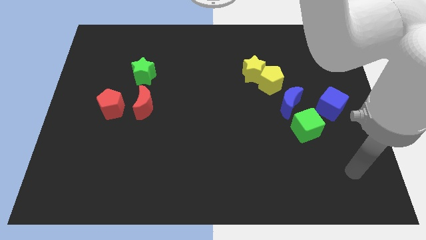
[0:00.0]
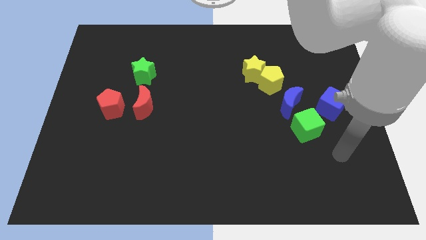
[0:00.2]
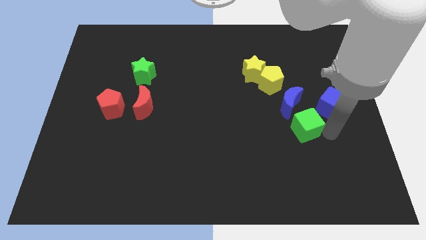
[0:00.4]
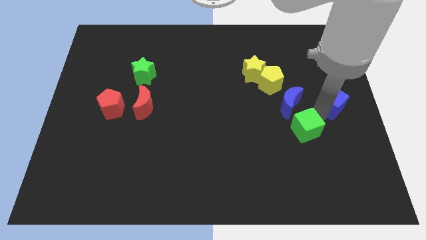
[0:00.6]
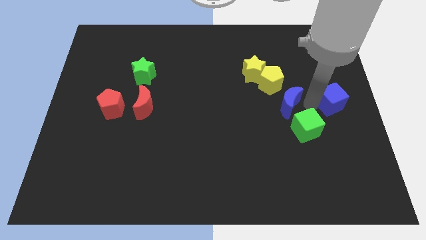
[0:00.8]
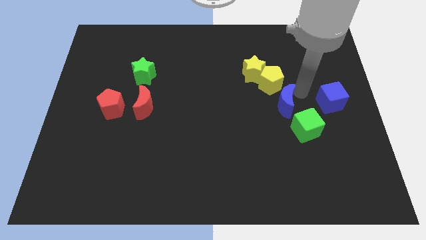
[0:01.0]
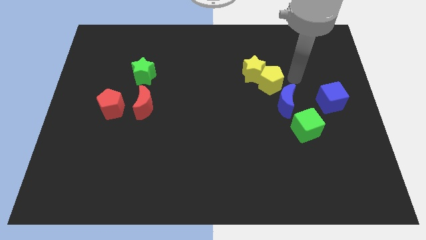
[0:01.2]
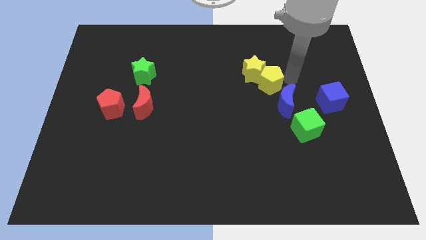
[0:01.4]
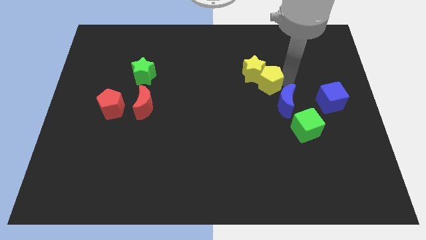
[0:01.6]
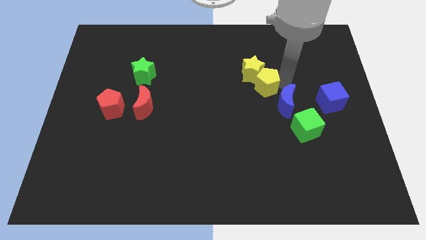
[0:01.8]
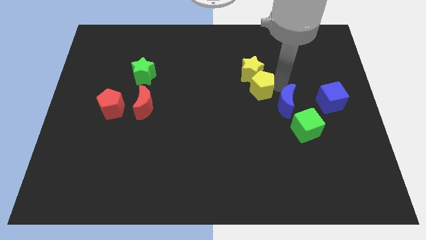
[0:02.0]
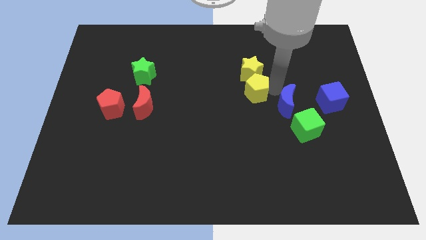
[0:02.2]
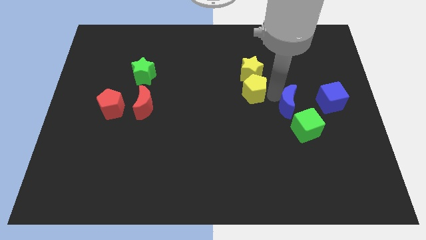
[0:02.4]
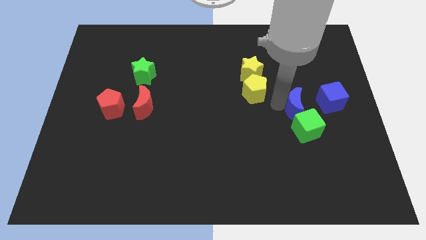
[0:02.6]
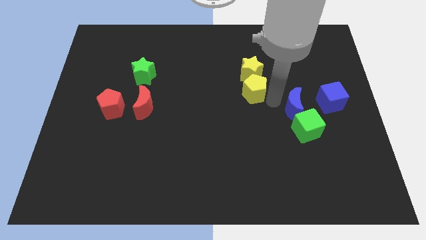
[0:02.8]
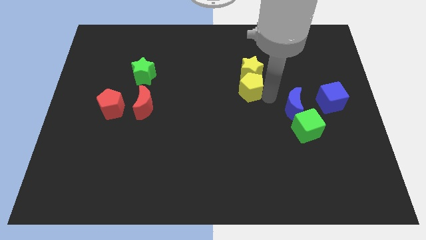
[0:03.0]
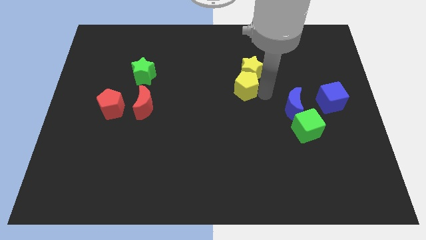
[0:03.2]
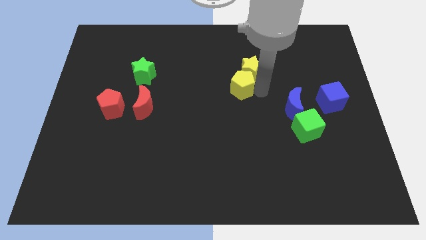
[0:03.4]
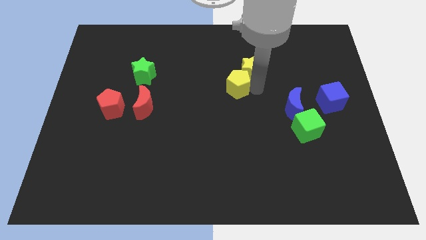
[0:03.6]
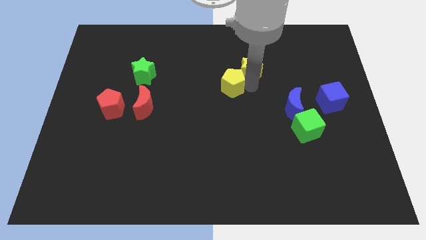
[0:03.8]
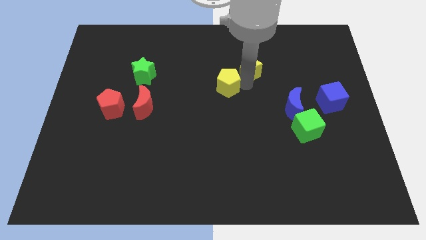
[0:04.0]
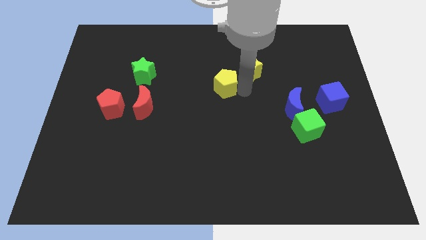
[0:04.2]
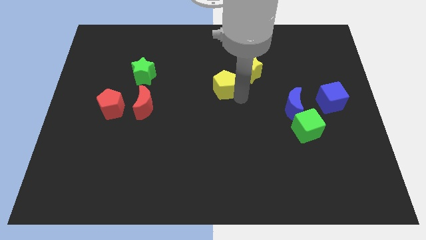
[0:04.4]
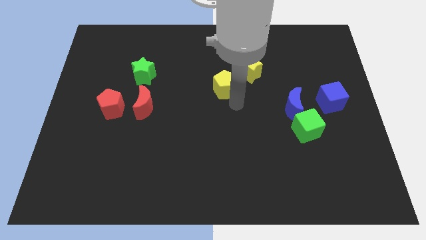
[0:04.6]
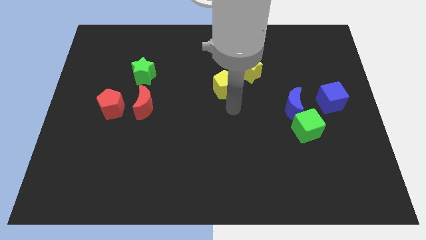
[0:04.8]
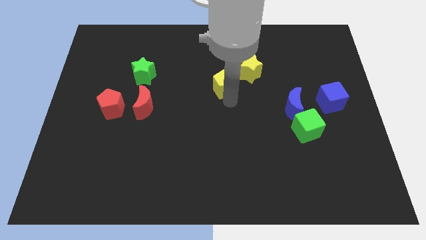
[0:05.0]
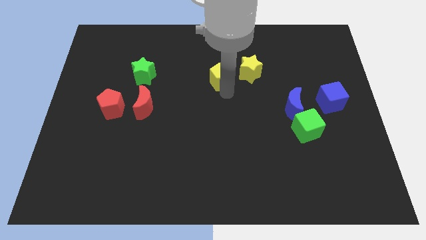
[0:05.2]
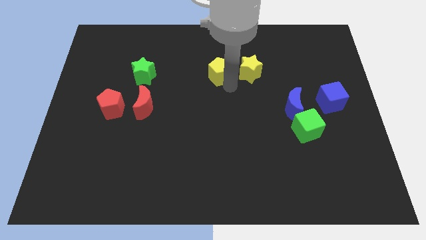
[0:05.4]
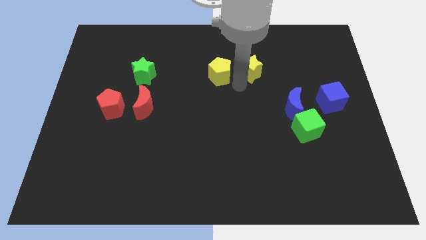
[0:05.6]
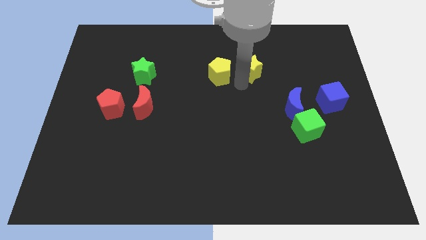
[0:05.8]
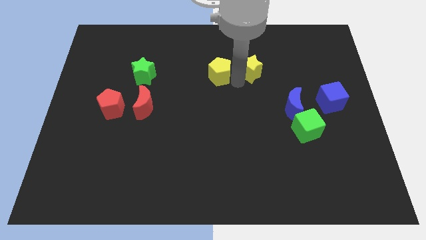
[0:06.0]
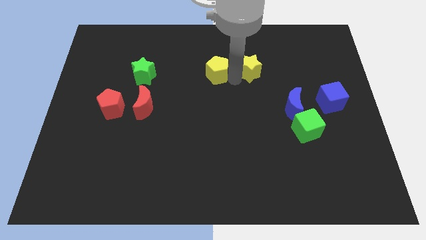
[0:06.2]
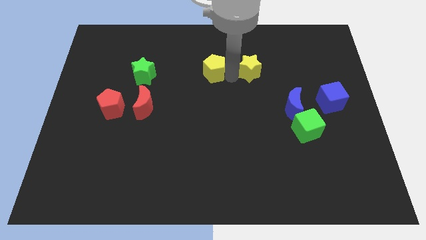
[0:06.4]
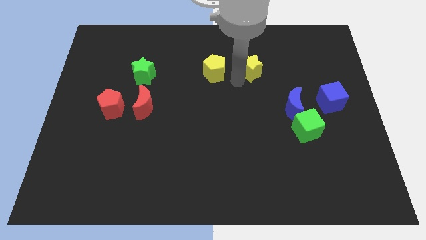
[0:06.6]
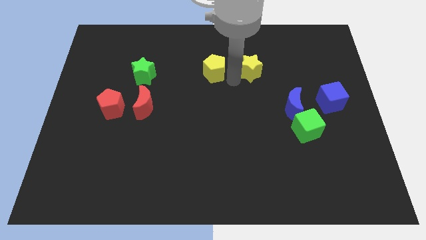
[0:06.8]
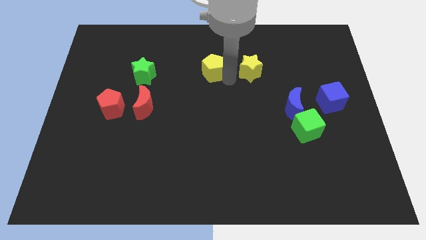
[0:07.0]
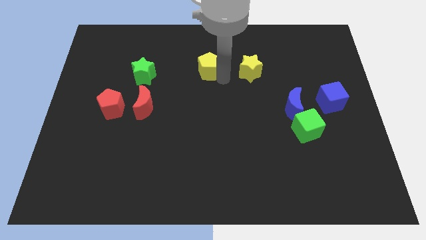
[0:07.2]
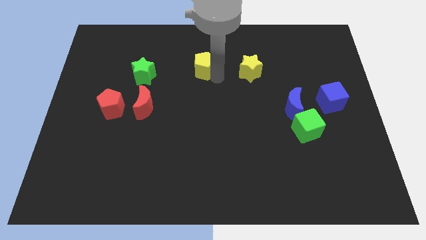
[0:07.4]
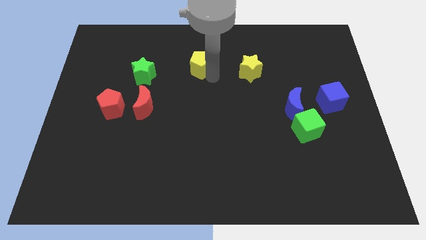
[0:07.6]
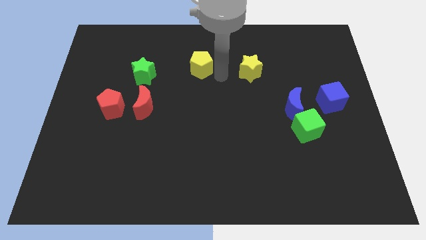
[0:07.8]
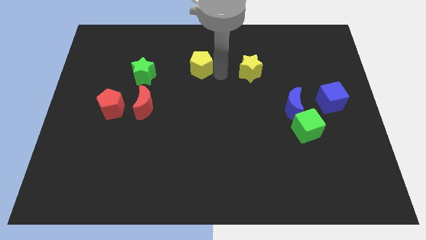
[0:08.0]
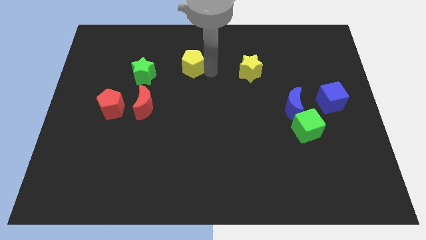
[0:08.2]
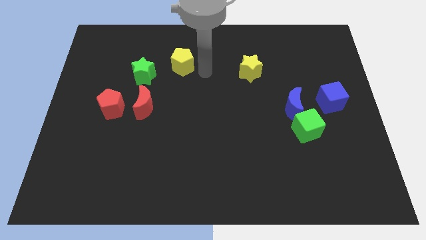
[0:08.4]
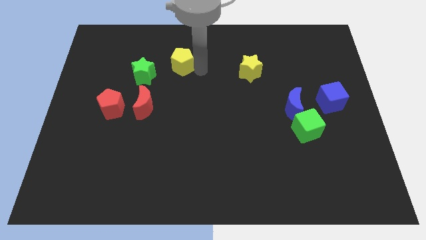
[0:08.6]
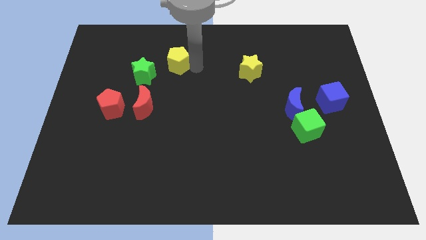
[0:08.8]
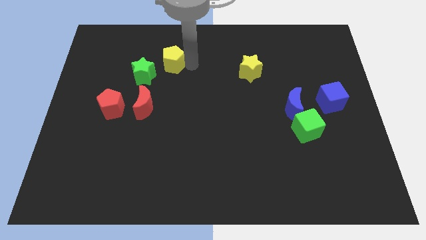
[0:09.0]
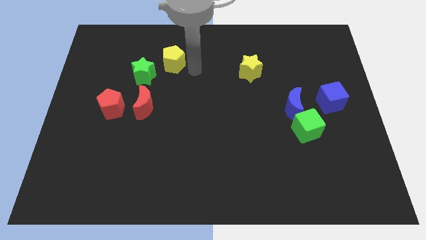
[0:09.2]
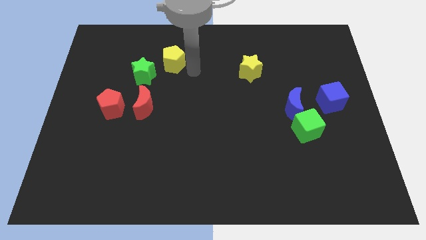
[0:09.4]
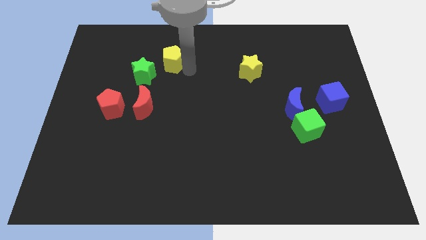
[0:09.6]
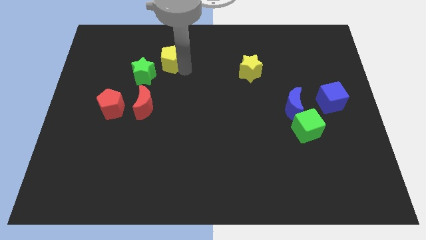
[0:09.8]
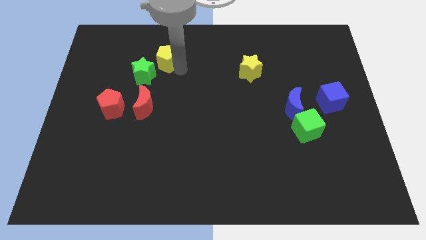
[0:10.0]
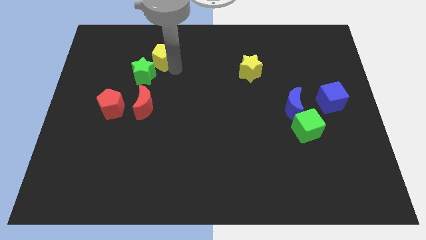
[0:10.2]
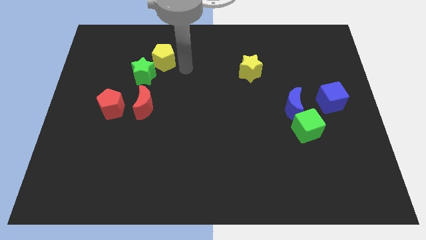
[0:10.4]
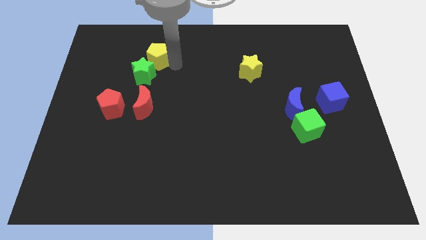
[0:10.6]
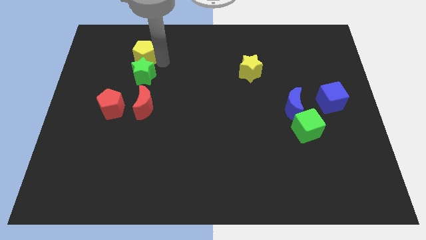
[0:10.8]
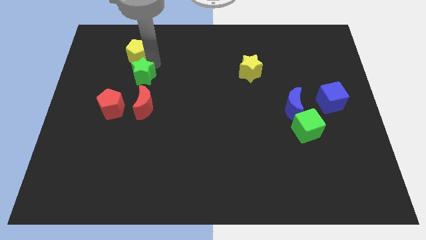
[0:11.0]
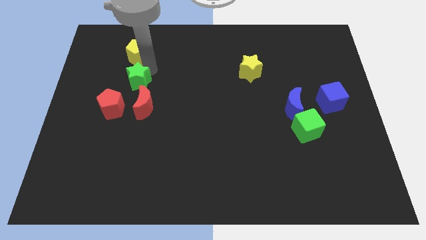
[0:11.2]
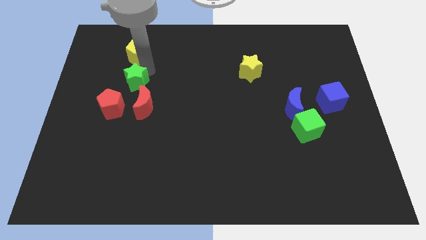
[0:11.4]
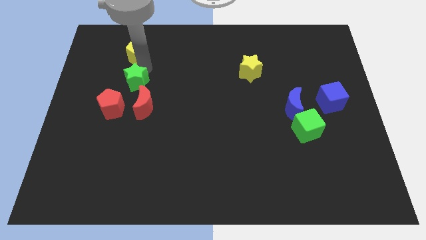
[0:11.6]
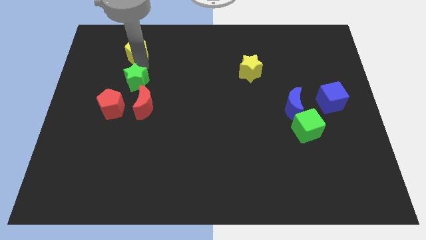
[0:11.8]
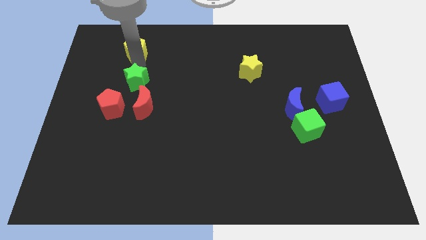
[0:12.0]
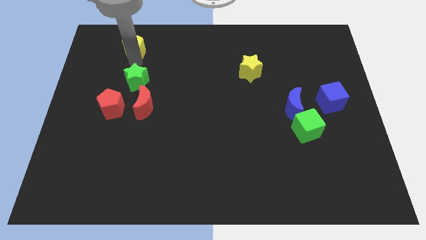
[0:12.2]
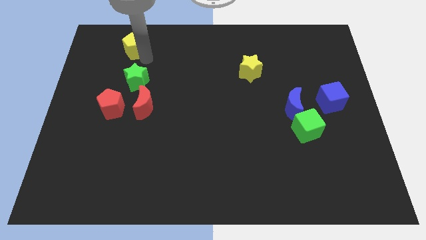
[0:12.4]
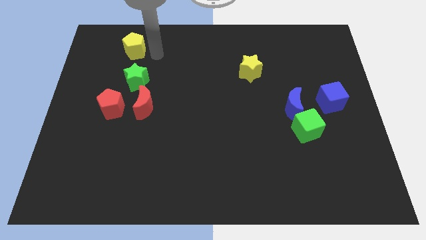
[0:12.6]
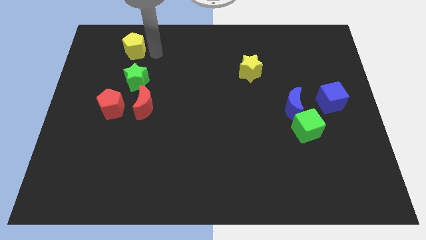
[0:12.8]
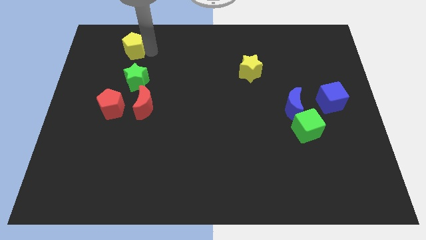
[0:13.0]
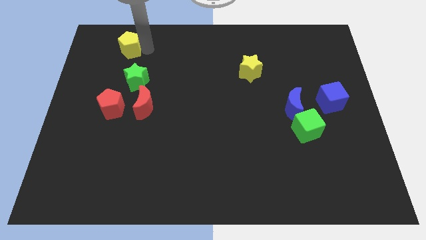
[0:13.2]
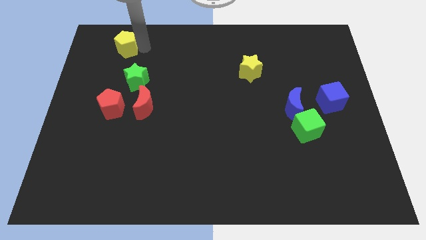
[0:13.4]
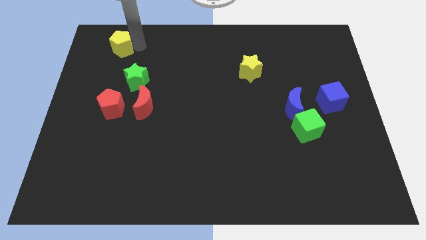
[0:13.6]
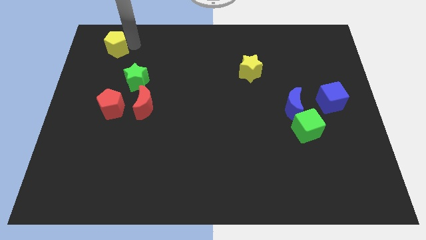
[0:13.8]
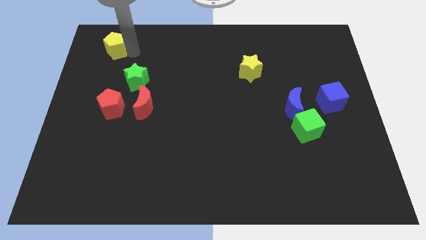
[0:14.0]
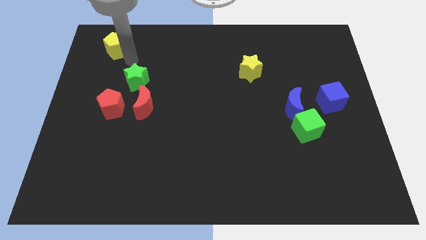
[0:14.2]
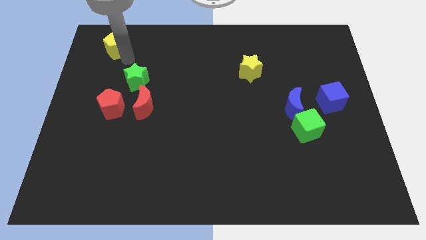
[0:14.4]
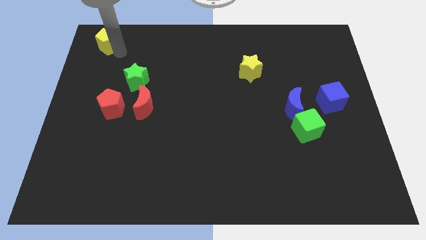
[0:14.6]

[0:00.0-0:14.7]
put the yellow pentagon to the top left
